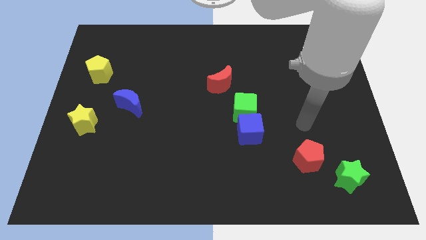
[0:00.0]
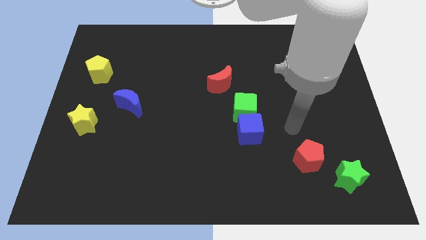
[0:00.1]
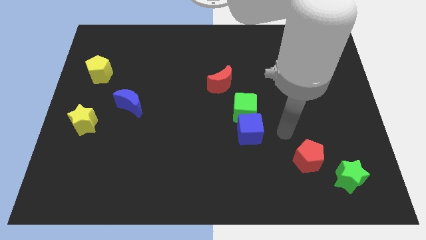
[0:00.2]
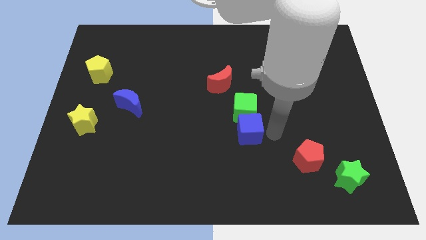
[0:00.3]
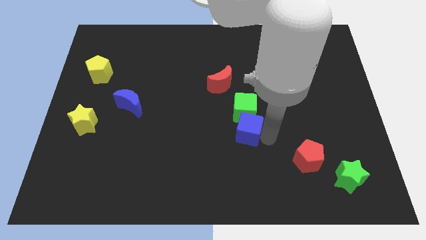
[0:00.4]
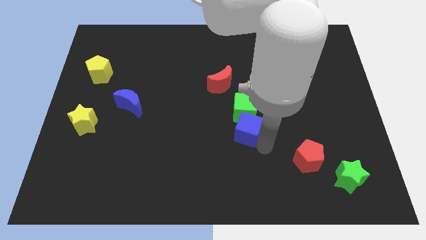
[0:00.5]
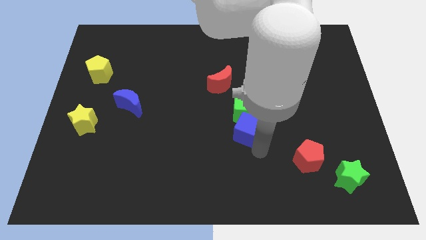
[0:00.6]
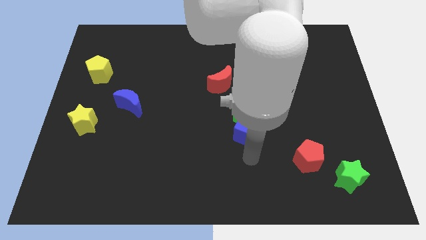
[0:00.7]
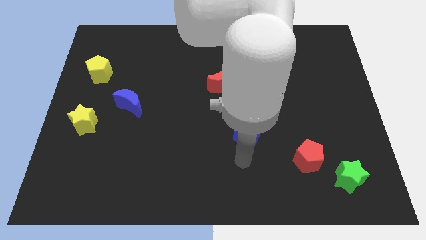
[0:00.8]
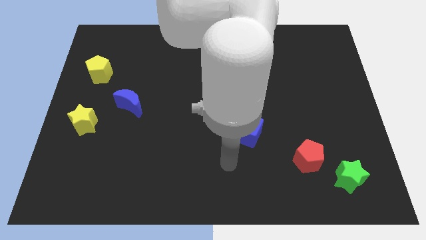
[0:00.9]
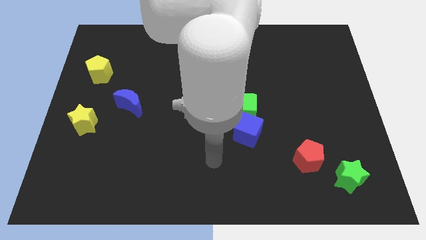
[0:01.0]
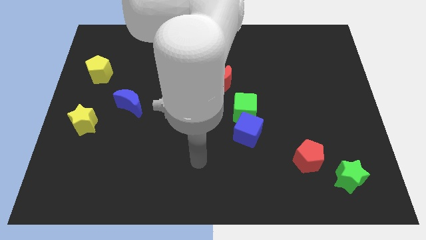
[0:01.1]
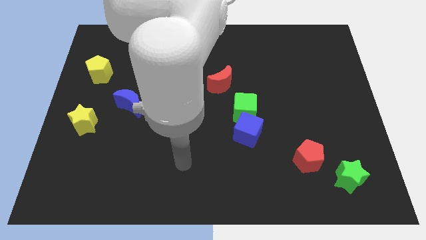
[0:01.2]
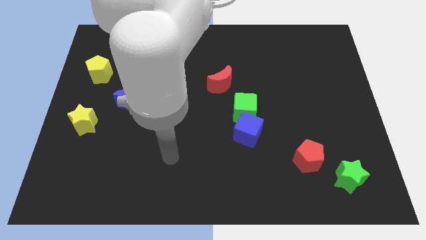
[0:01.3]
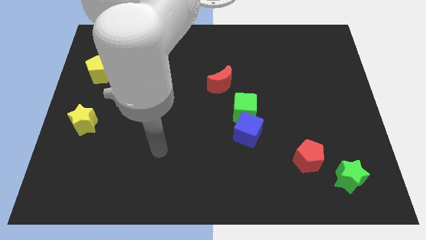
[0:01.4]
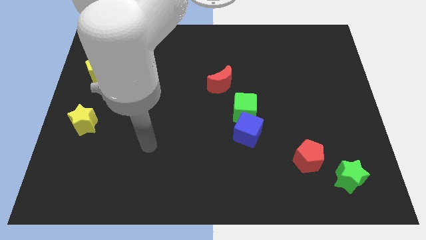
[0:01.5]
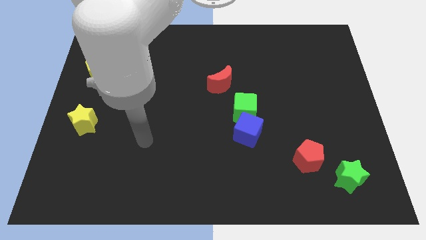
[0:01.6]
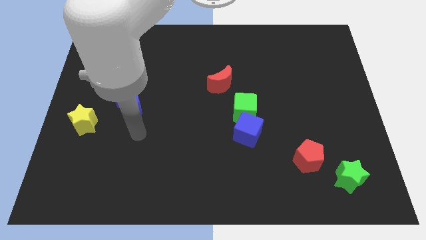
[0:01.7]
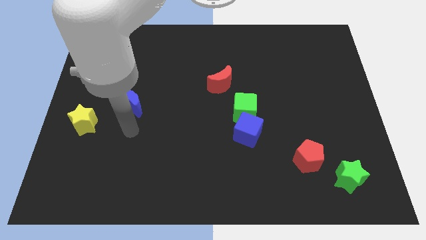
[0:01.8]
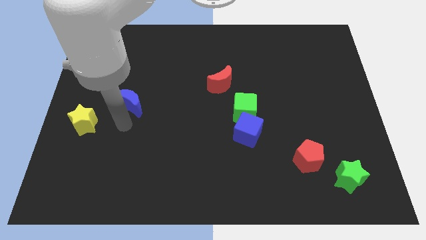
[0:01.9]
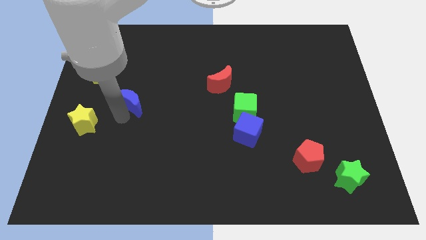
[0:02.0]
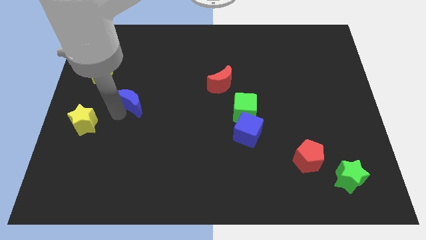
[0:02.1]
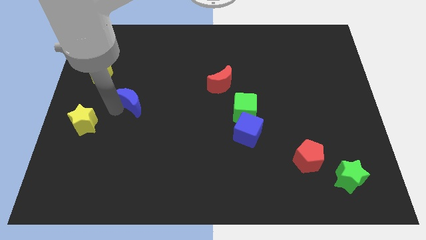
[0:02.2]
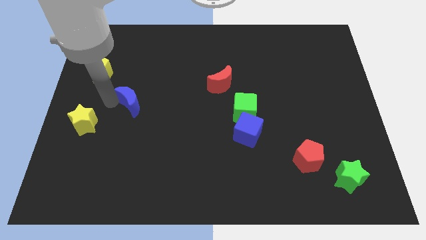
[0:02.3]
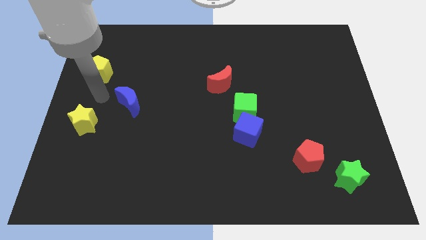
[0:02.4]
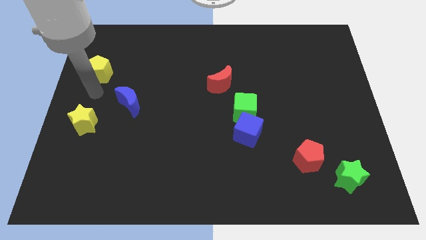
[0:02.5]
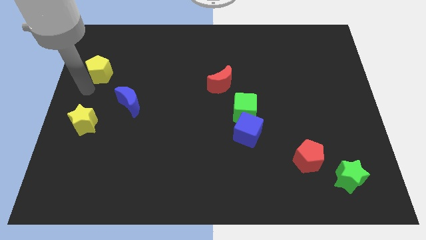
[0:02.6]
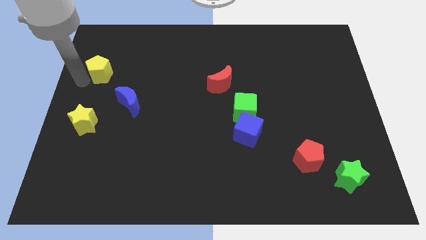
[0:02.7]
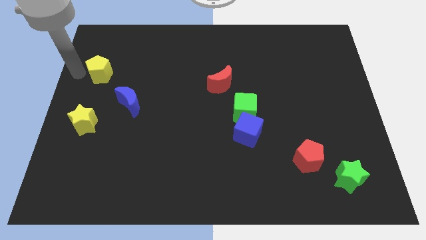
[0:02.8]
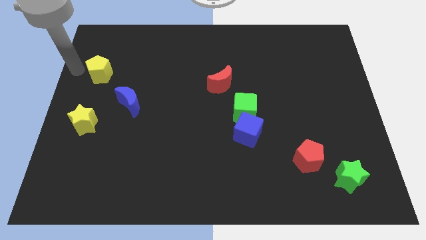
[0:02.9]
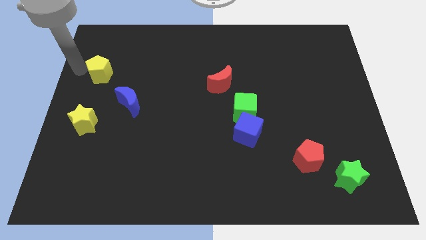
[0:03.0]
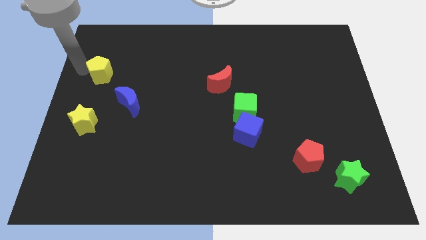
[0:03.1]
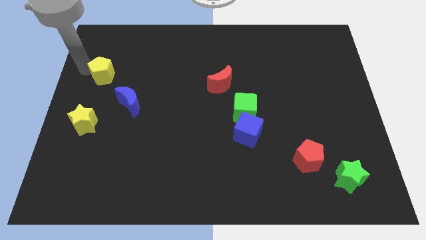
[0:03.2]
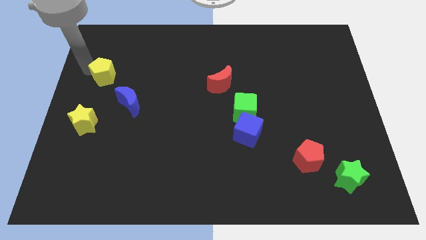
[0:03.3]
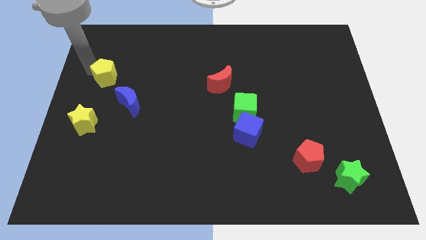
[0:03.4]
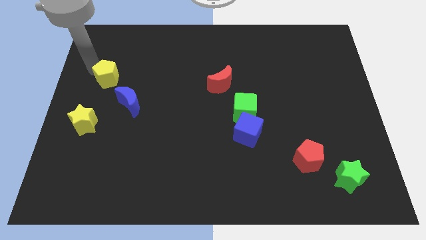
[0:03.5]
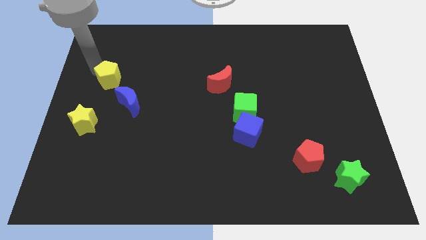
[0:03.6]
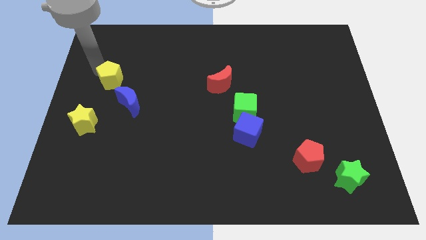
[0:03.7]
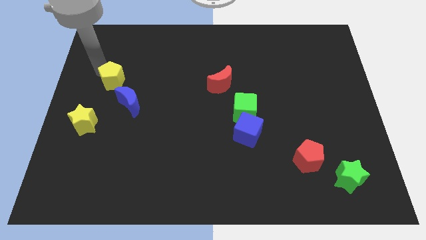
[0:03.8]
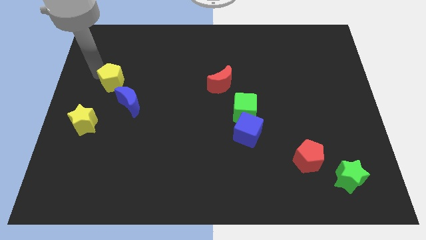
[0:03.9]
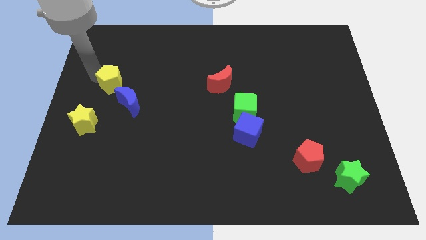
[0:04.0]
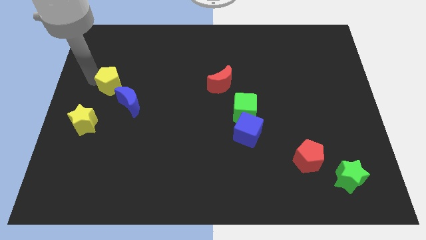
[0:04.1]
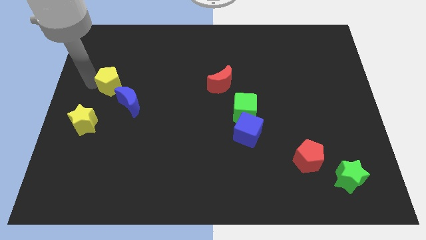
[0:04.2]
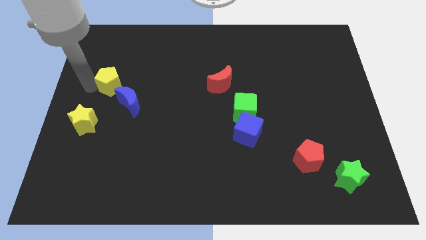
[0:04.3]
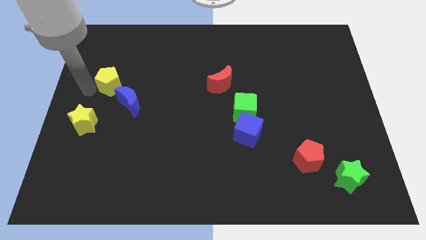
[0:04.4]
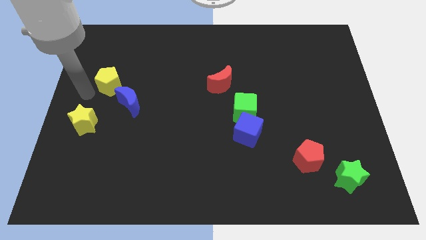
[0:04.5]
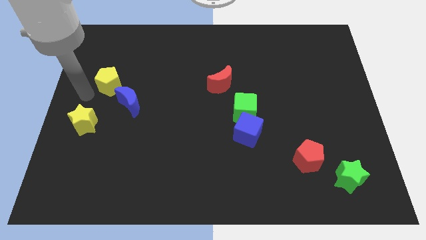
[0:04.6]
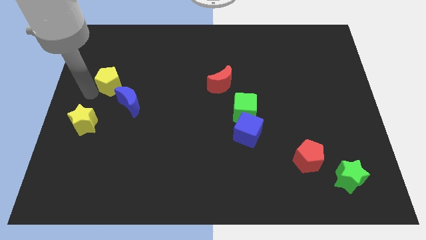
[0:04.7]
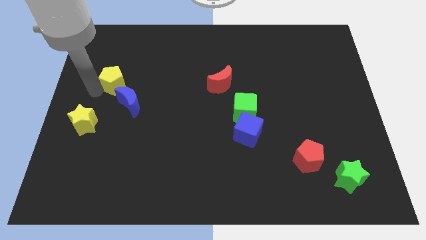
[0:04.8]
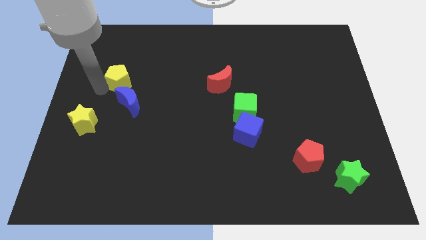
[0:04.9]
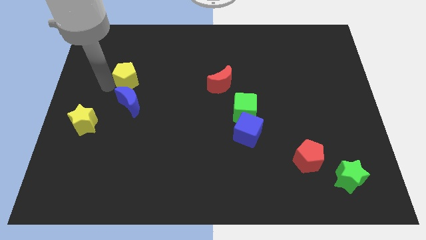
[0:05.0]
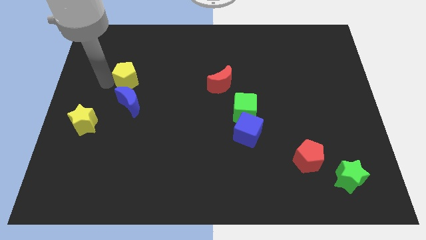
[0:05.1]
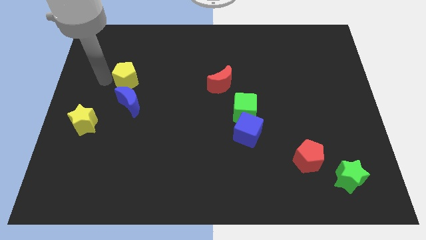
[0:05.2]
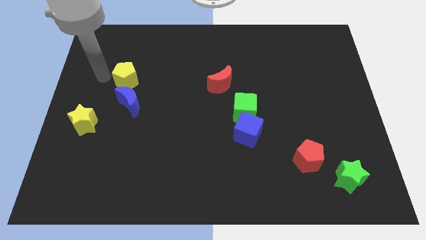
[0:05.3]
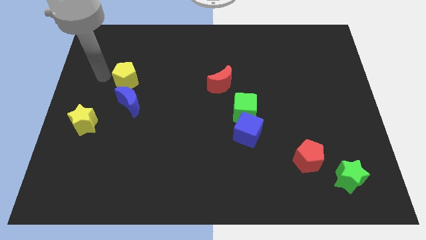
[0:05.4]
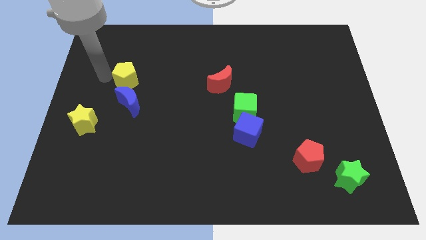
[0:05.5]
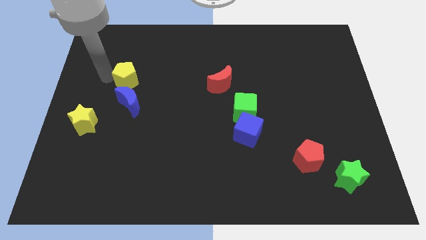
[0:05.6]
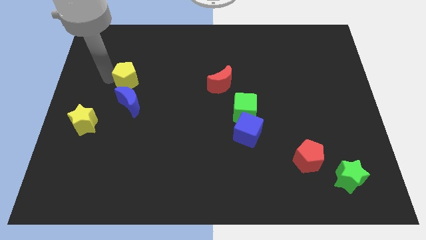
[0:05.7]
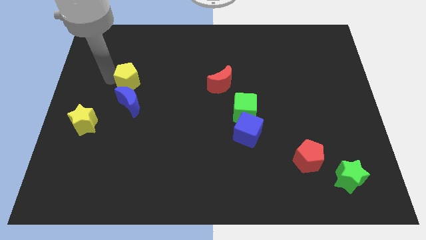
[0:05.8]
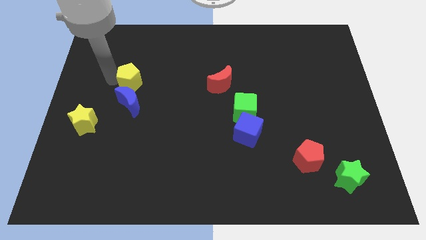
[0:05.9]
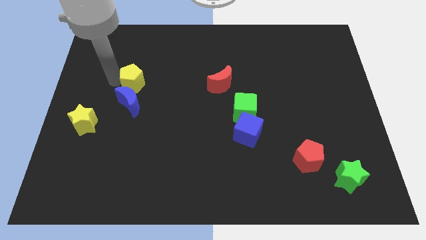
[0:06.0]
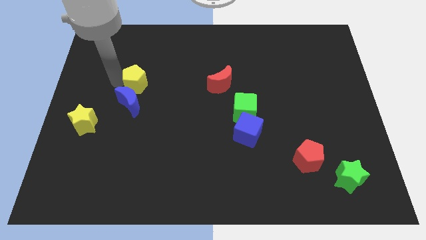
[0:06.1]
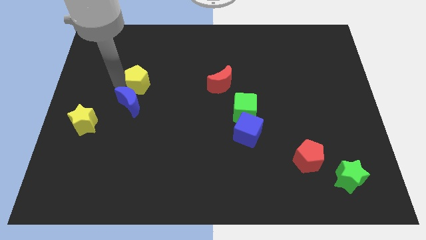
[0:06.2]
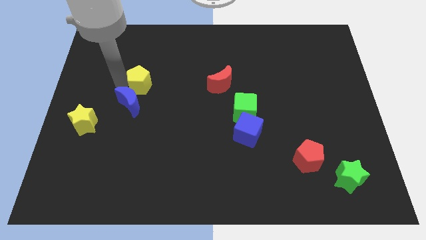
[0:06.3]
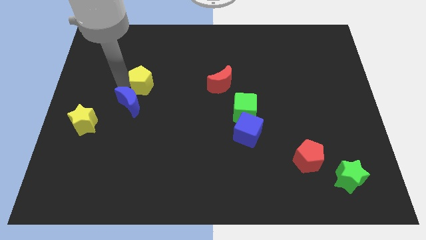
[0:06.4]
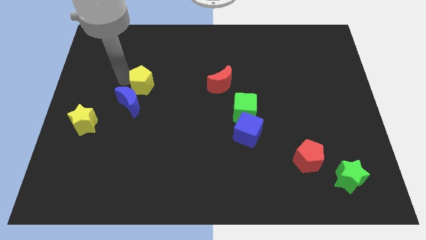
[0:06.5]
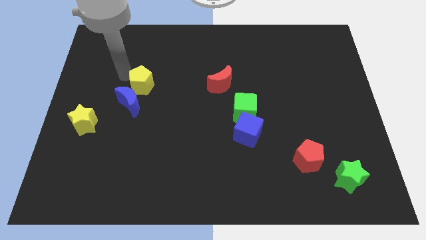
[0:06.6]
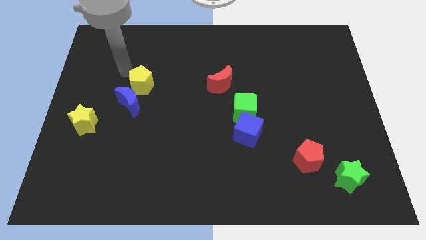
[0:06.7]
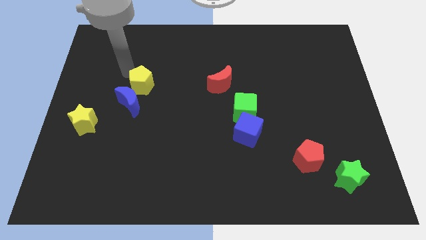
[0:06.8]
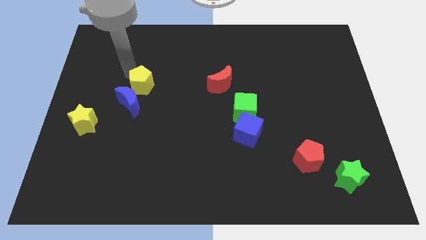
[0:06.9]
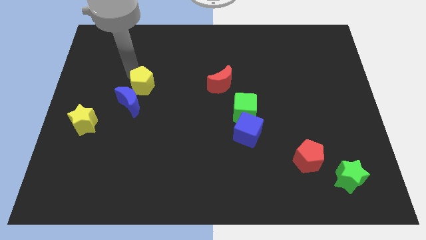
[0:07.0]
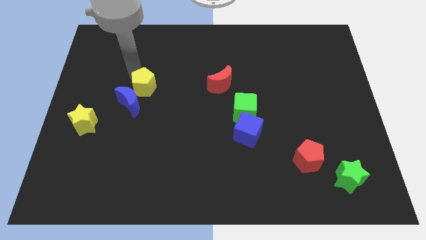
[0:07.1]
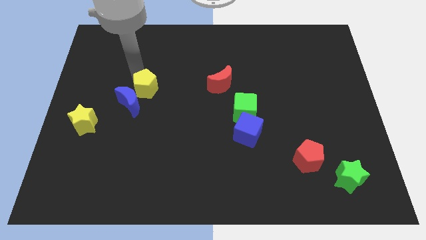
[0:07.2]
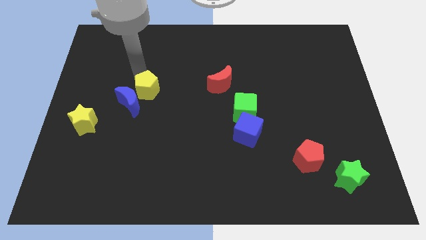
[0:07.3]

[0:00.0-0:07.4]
push the yellow pentagon just right of the blue moon

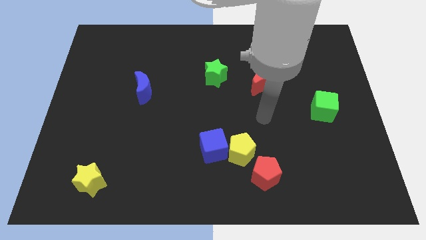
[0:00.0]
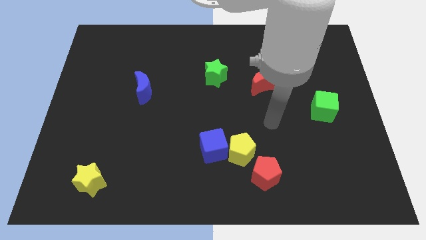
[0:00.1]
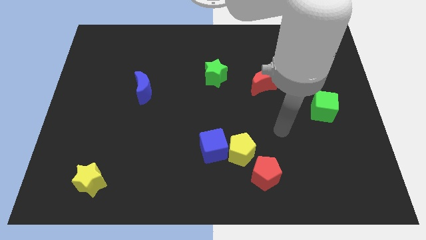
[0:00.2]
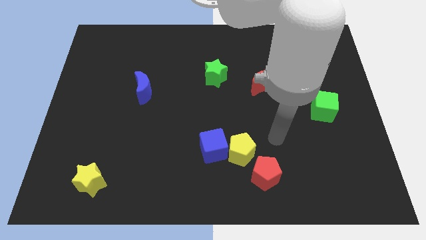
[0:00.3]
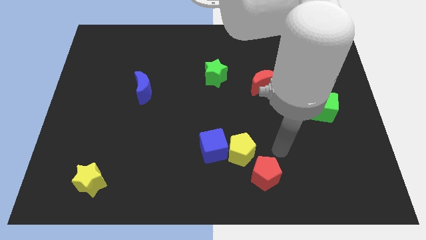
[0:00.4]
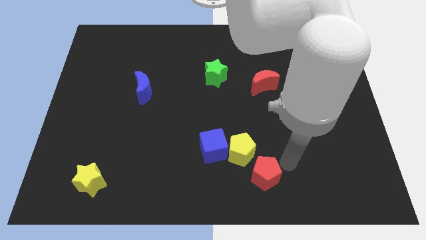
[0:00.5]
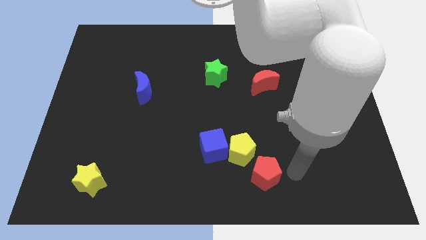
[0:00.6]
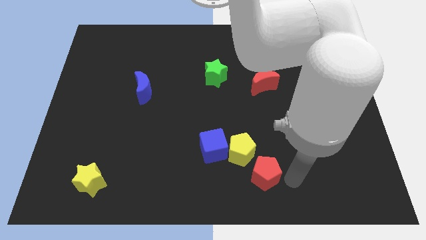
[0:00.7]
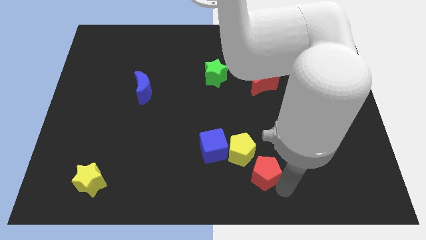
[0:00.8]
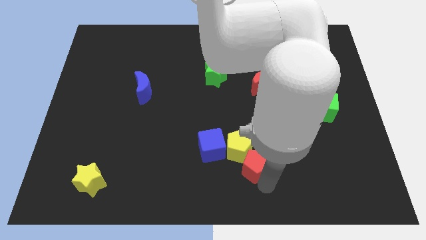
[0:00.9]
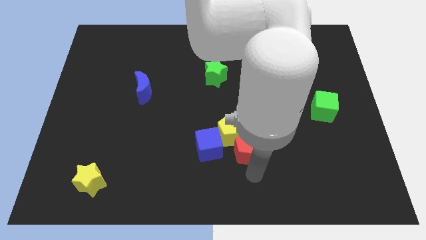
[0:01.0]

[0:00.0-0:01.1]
move the yellow pentagon above the blue cube
